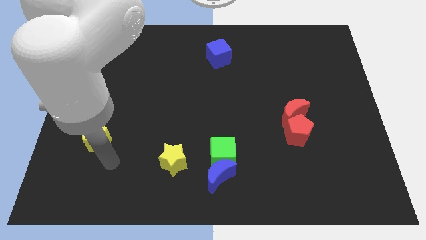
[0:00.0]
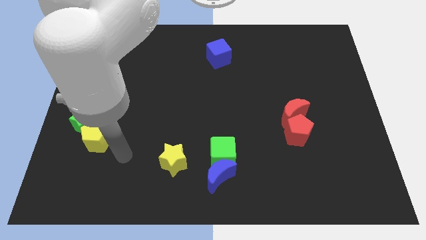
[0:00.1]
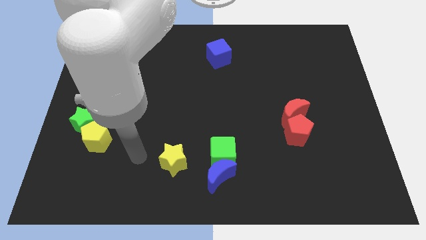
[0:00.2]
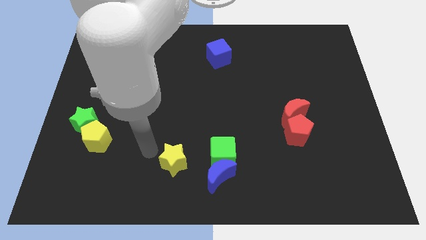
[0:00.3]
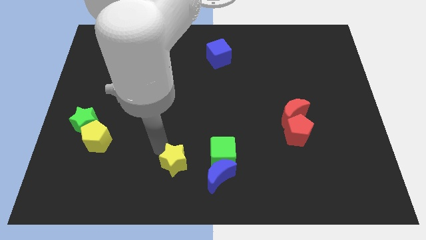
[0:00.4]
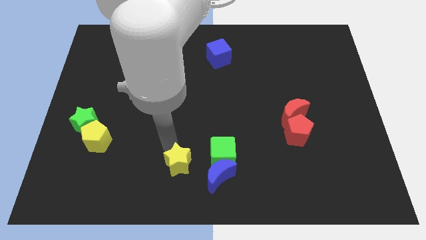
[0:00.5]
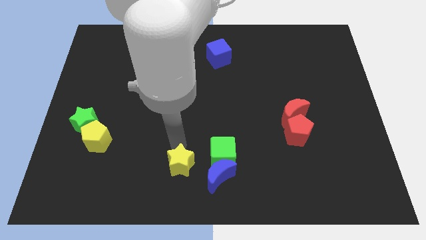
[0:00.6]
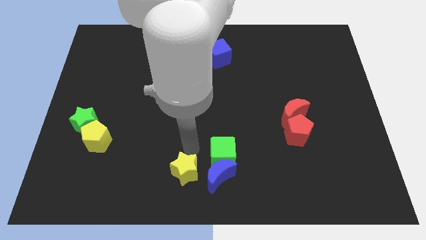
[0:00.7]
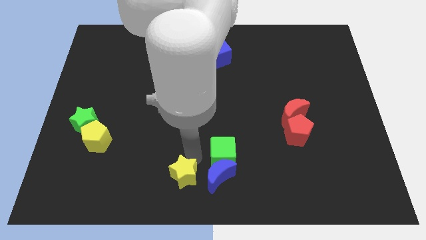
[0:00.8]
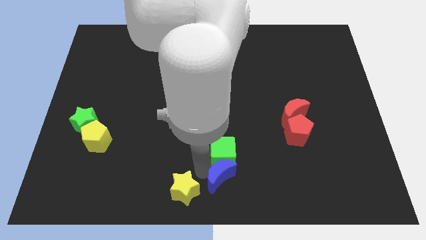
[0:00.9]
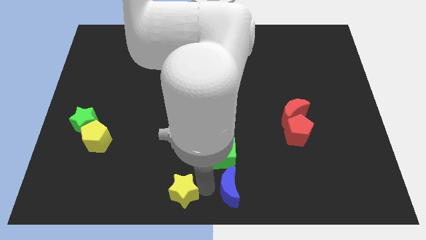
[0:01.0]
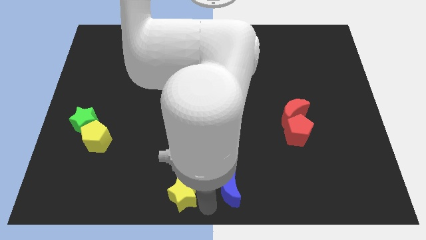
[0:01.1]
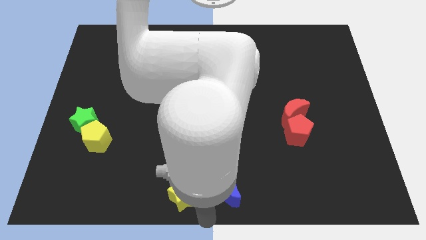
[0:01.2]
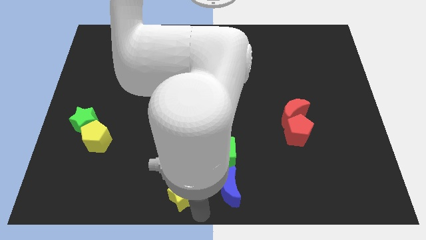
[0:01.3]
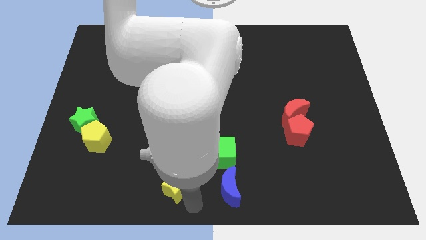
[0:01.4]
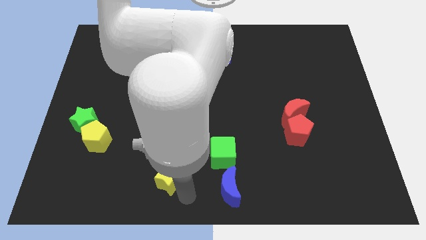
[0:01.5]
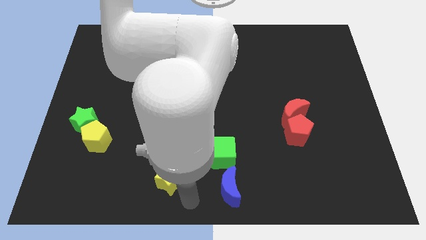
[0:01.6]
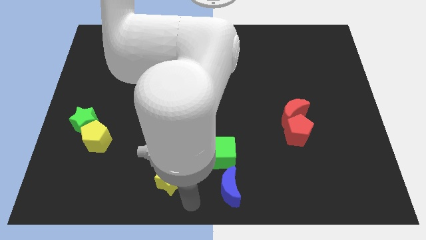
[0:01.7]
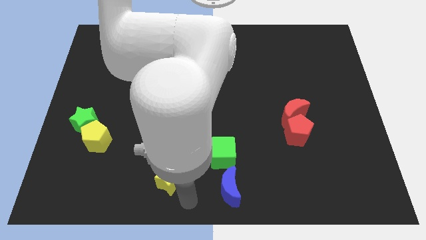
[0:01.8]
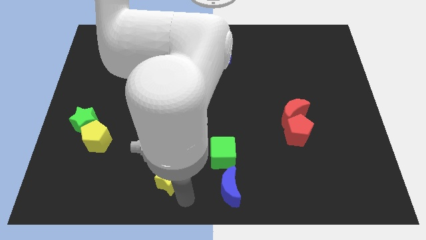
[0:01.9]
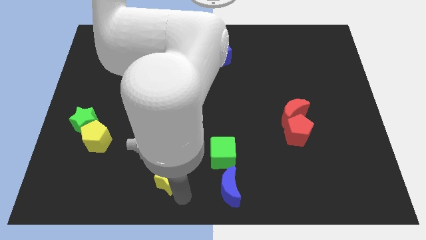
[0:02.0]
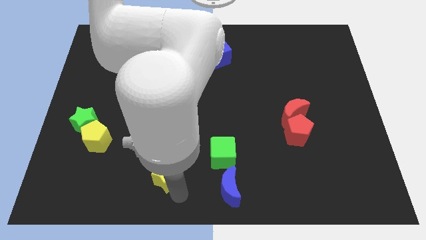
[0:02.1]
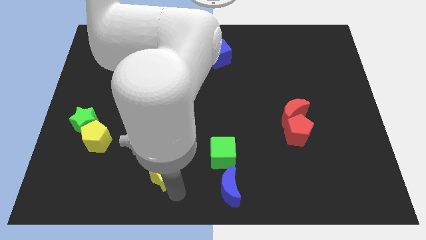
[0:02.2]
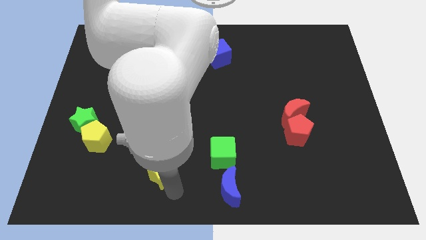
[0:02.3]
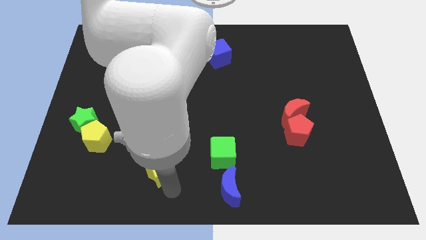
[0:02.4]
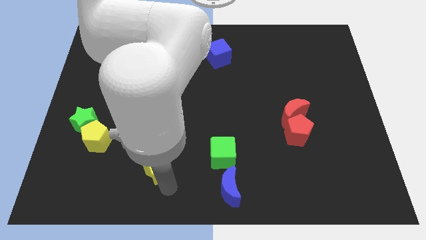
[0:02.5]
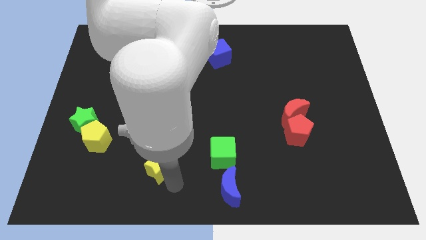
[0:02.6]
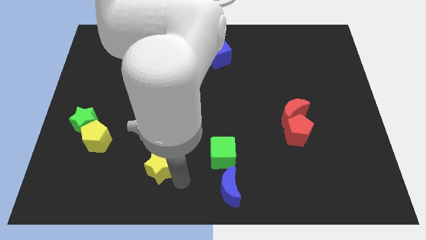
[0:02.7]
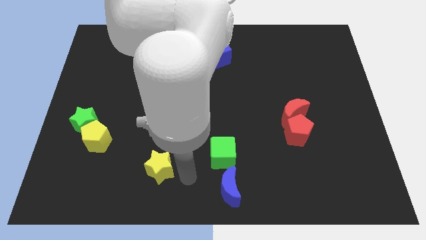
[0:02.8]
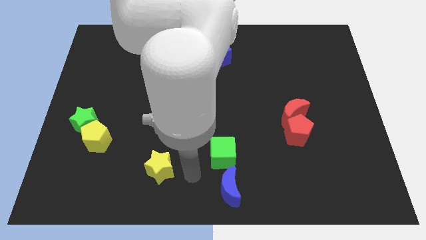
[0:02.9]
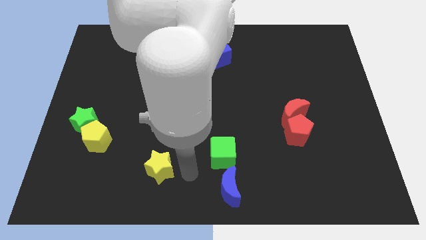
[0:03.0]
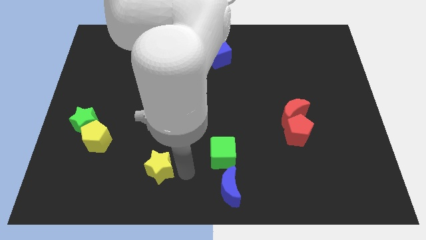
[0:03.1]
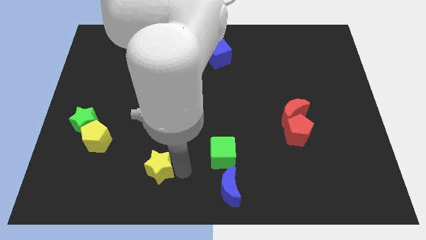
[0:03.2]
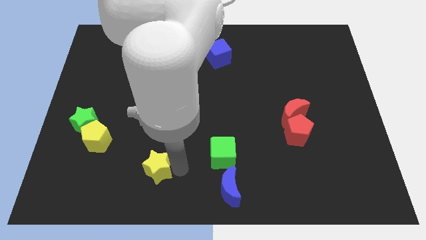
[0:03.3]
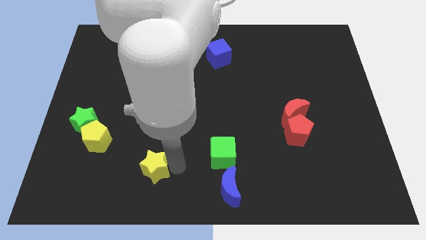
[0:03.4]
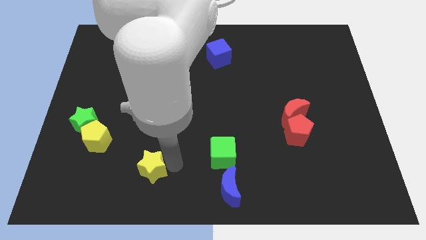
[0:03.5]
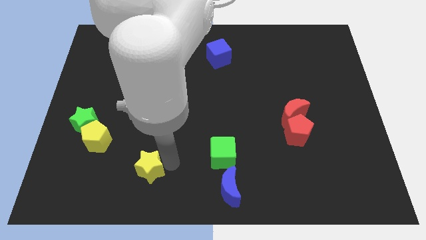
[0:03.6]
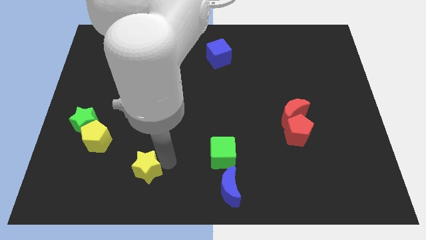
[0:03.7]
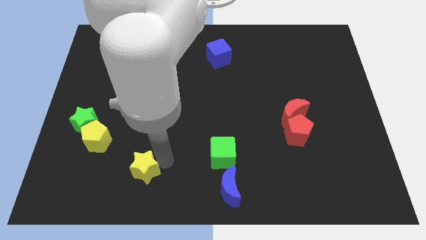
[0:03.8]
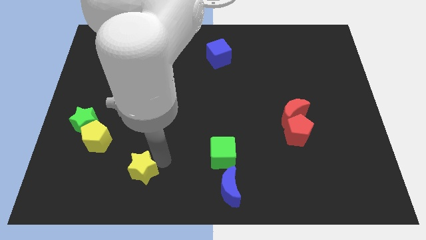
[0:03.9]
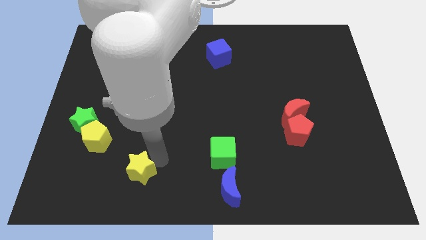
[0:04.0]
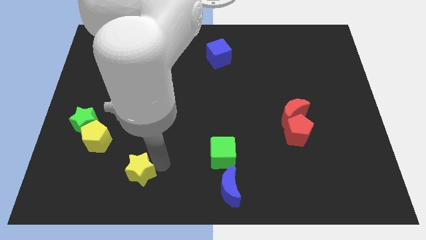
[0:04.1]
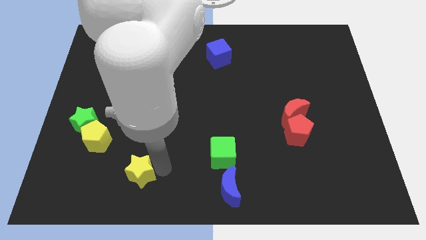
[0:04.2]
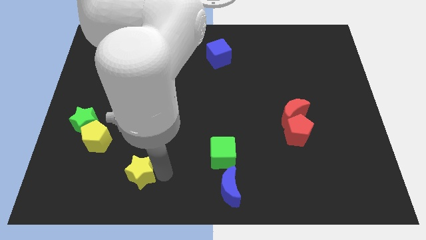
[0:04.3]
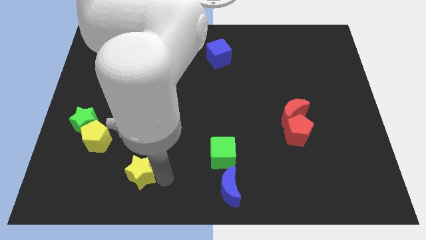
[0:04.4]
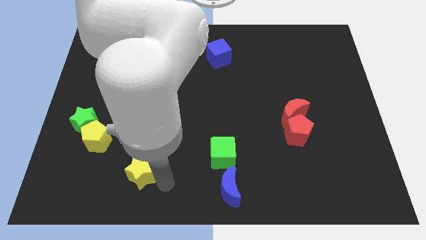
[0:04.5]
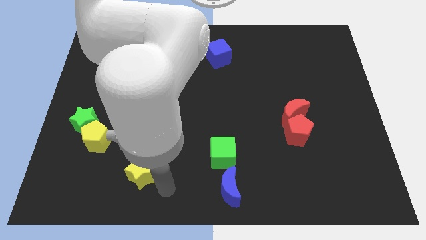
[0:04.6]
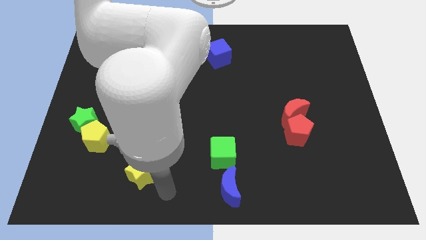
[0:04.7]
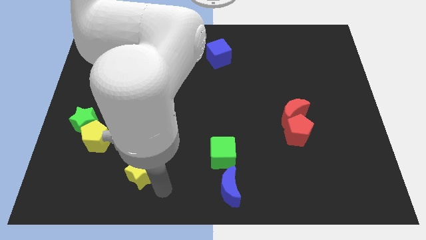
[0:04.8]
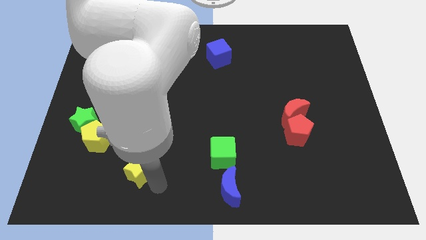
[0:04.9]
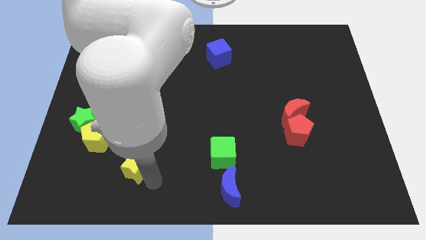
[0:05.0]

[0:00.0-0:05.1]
push the yellow star left a little

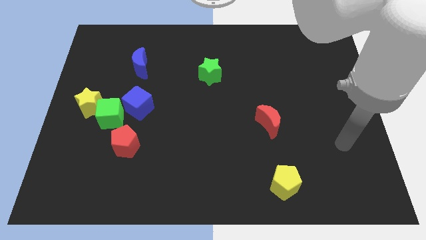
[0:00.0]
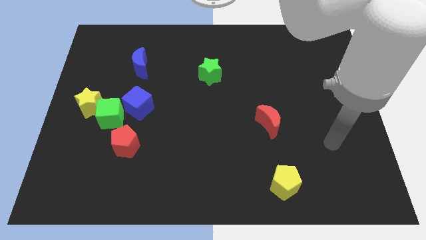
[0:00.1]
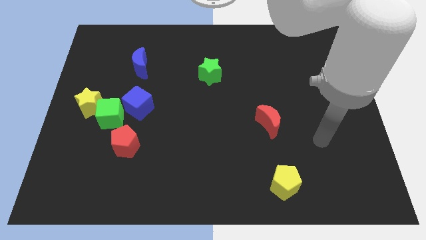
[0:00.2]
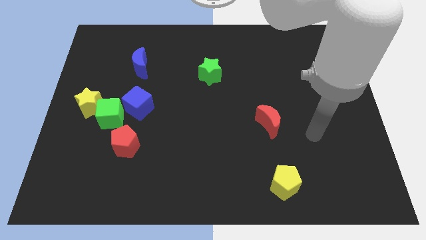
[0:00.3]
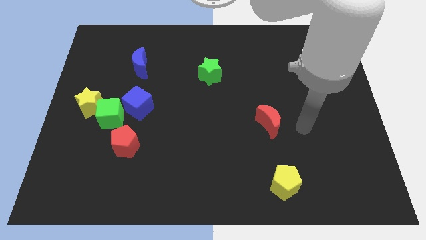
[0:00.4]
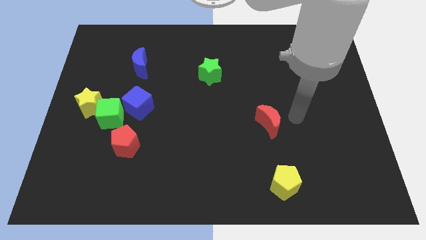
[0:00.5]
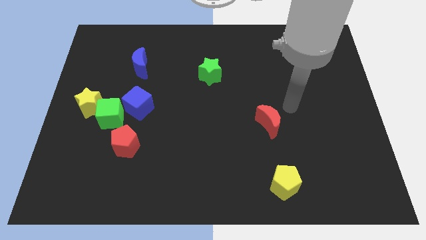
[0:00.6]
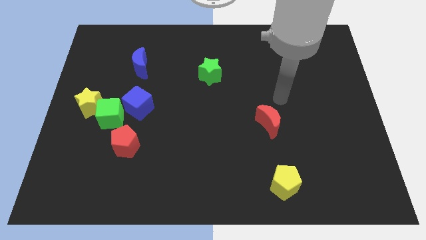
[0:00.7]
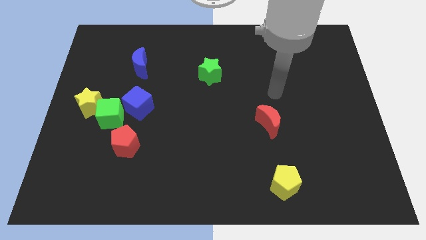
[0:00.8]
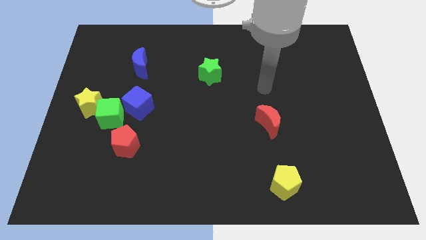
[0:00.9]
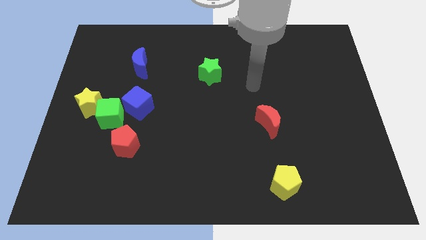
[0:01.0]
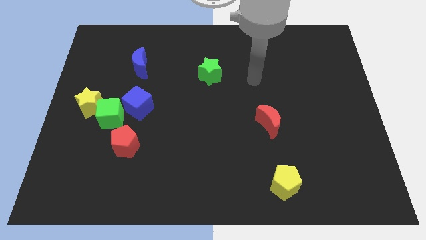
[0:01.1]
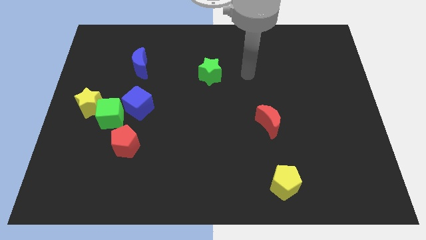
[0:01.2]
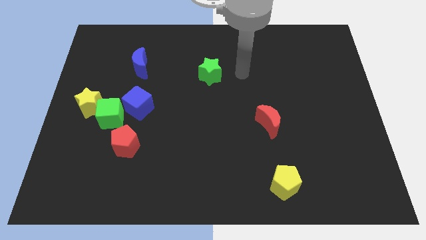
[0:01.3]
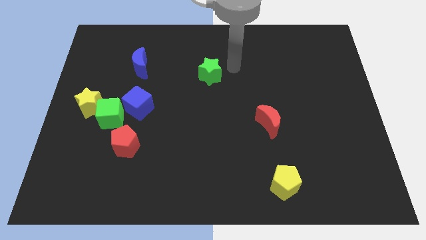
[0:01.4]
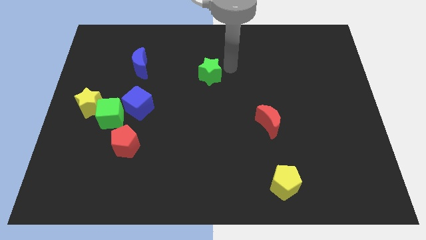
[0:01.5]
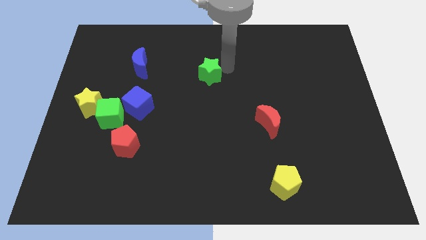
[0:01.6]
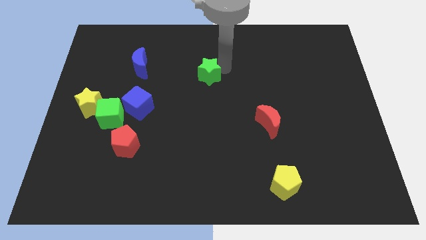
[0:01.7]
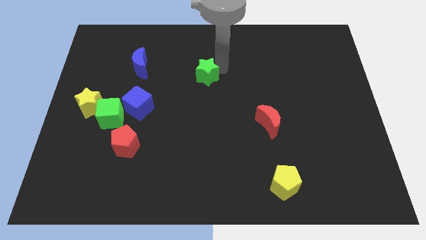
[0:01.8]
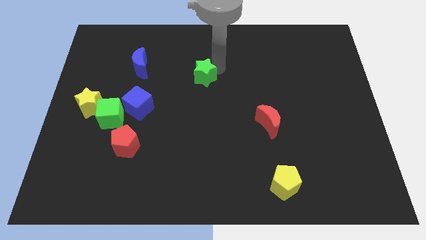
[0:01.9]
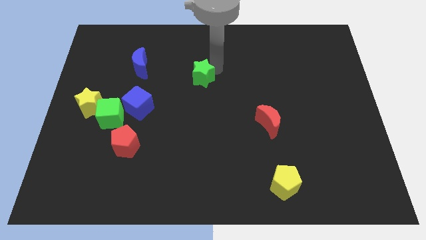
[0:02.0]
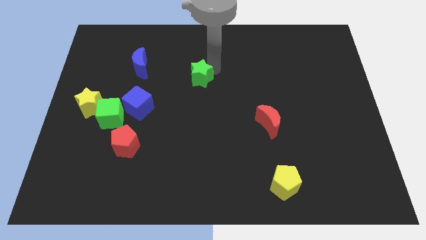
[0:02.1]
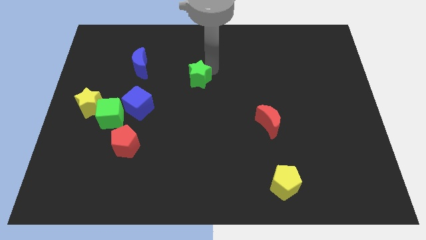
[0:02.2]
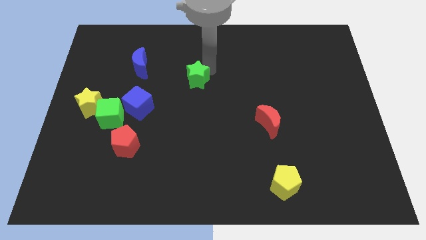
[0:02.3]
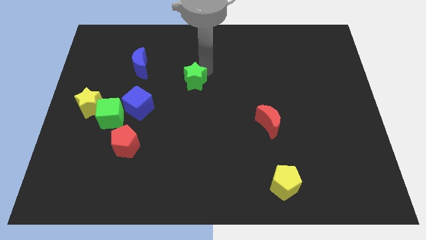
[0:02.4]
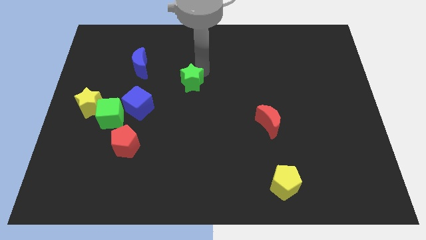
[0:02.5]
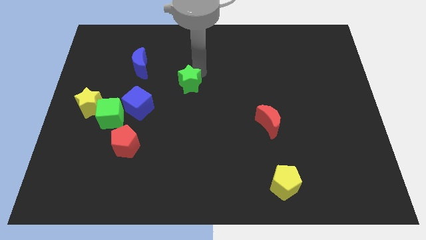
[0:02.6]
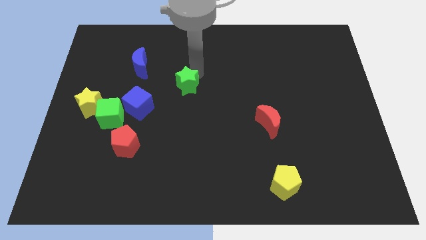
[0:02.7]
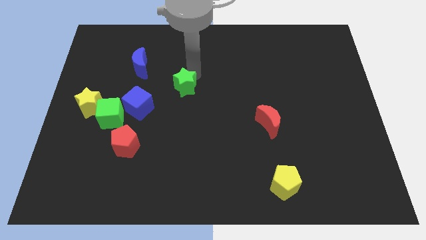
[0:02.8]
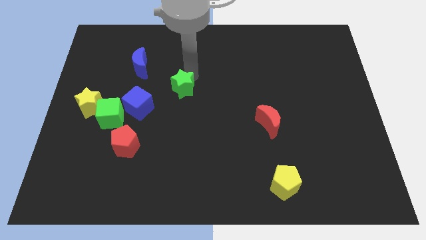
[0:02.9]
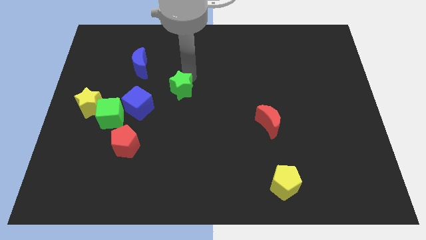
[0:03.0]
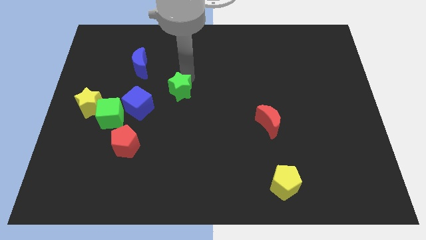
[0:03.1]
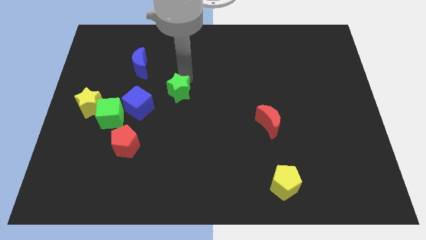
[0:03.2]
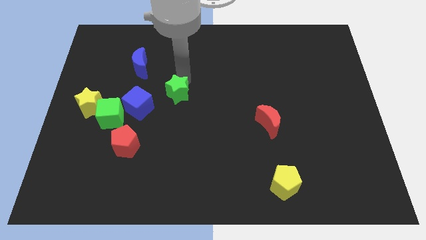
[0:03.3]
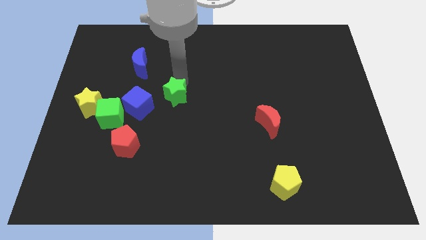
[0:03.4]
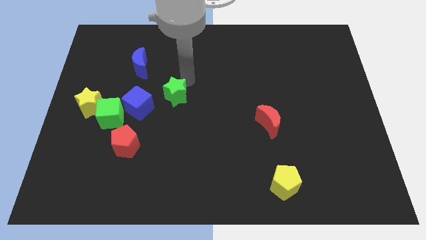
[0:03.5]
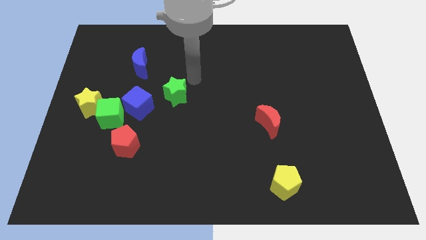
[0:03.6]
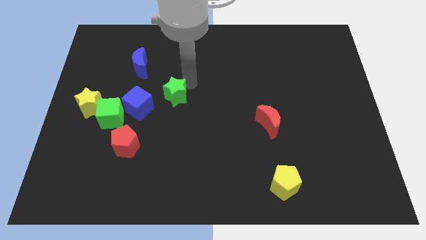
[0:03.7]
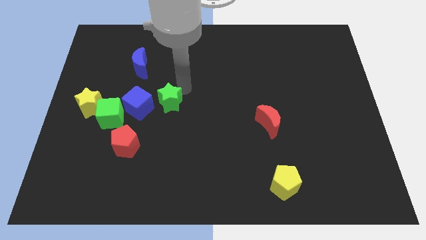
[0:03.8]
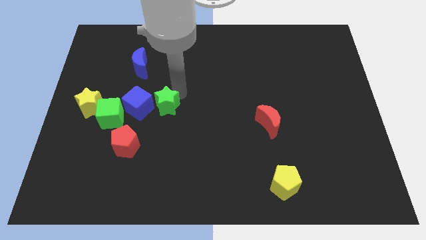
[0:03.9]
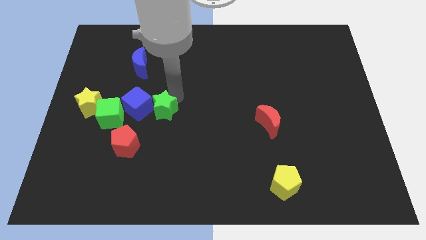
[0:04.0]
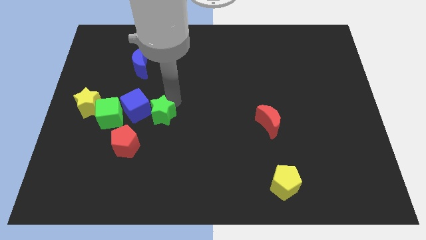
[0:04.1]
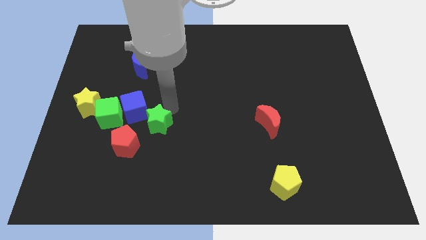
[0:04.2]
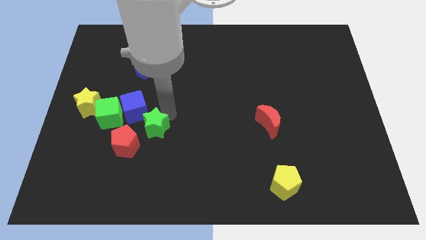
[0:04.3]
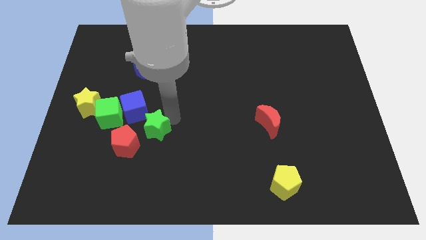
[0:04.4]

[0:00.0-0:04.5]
slide the green star diagonally downwards and to the left
